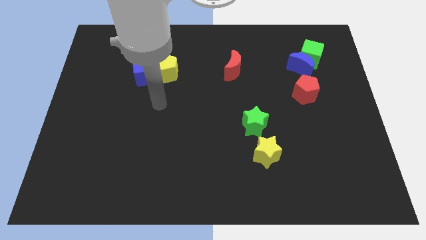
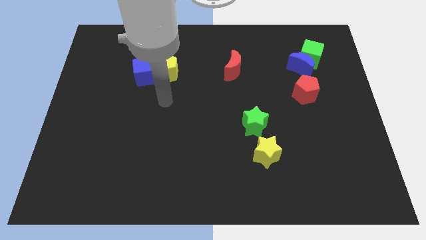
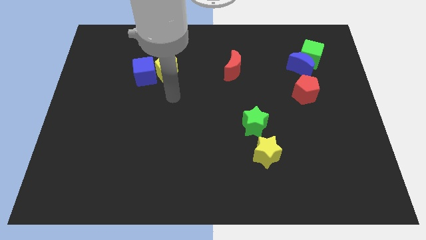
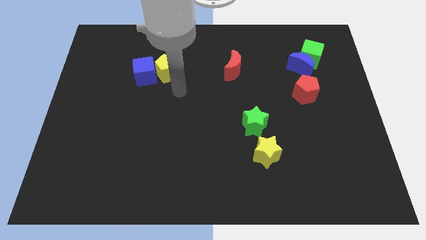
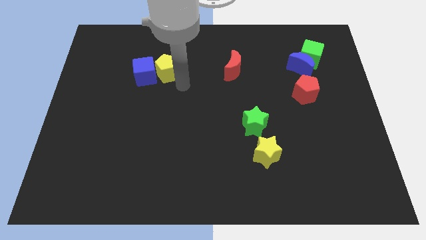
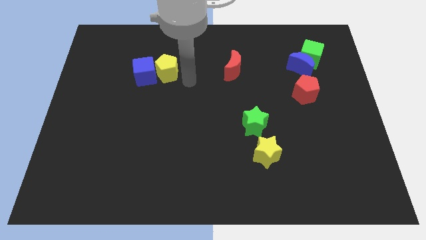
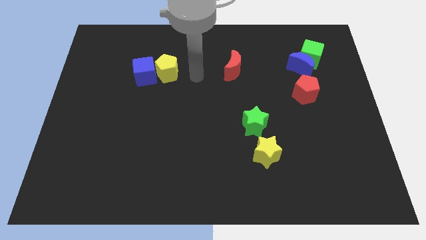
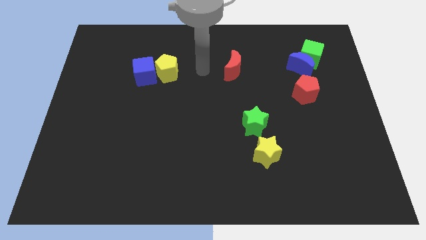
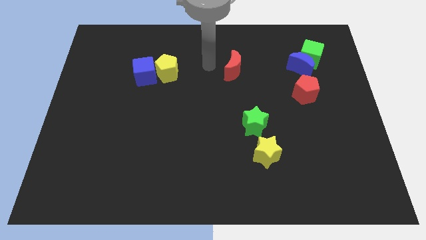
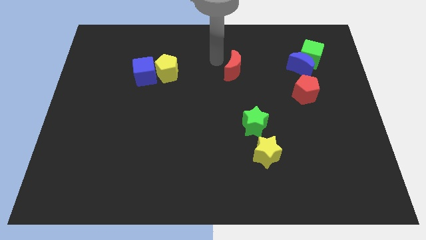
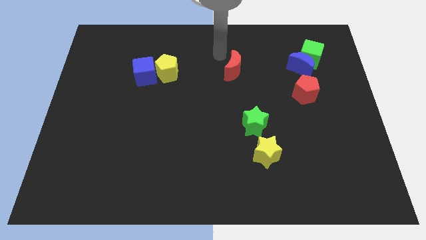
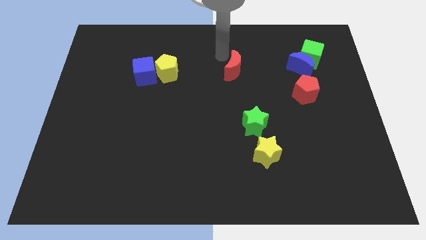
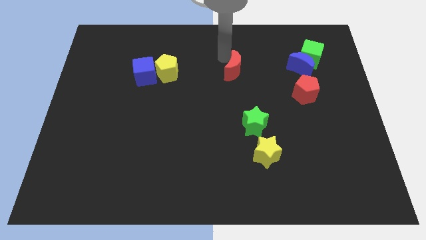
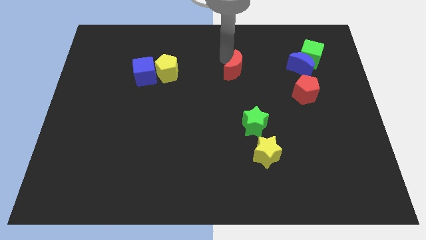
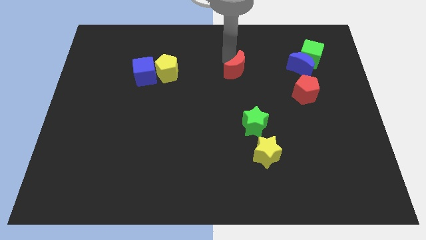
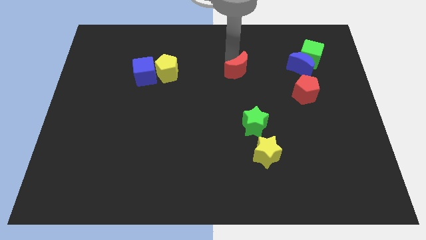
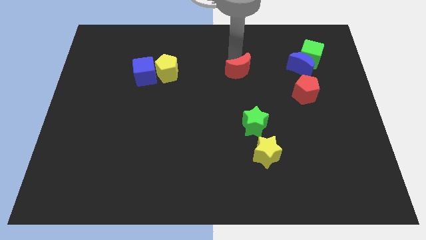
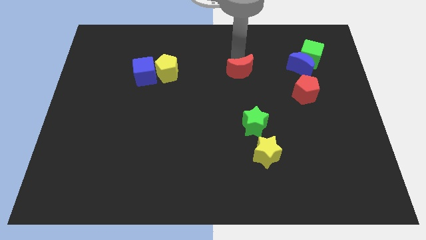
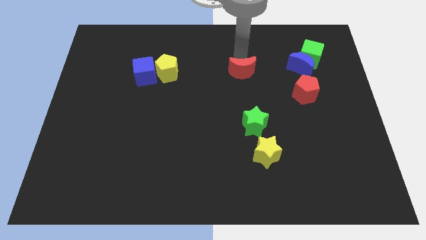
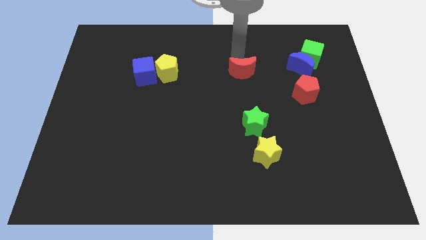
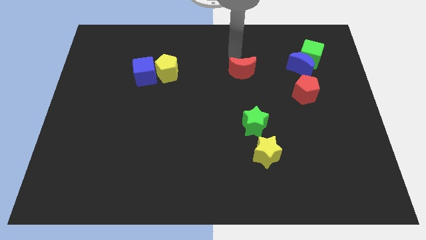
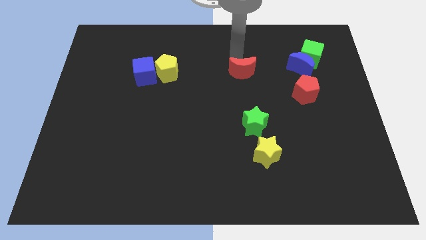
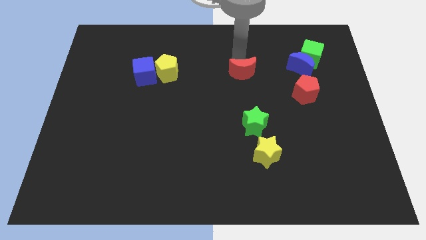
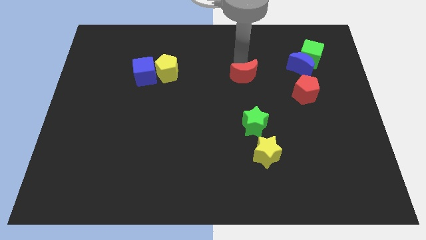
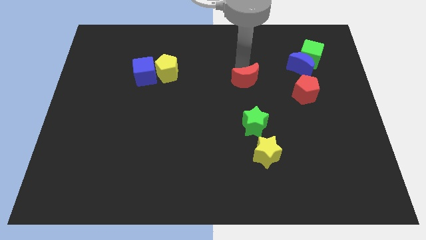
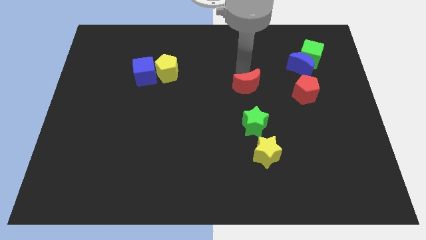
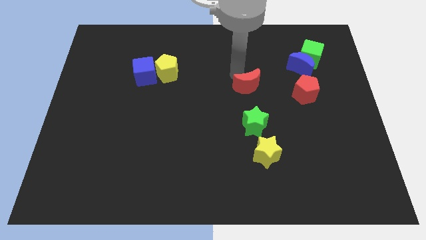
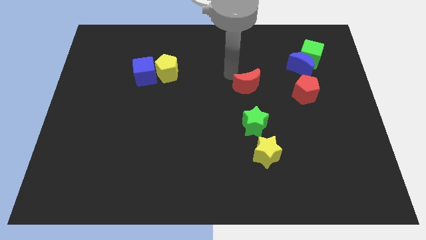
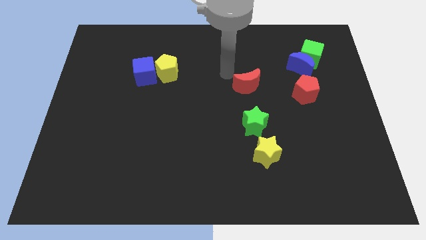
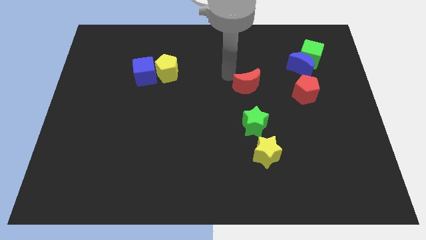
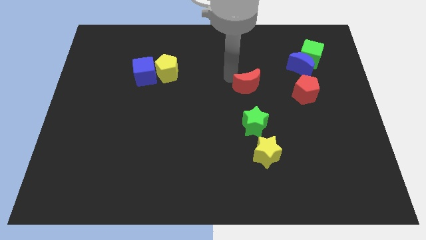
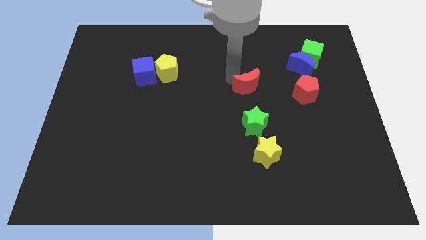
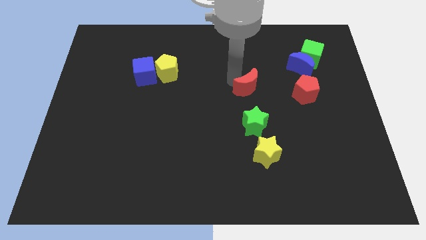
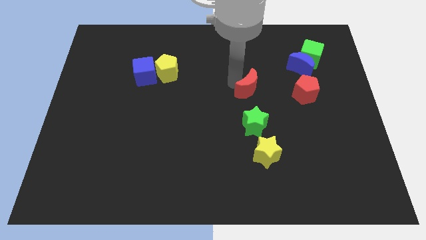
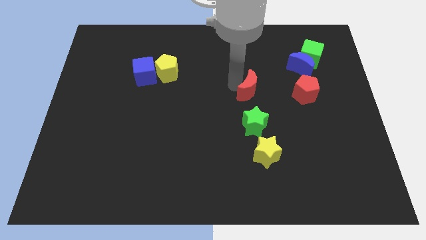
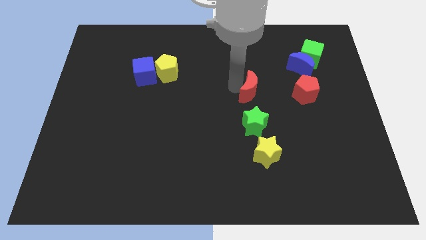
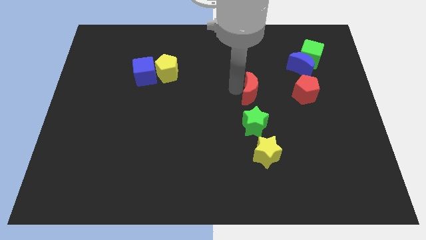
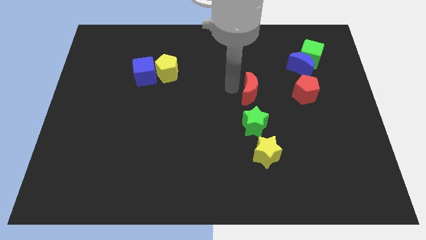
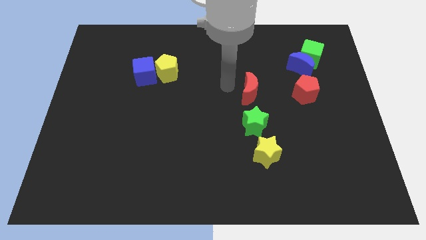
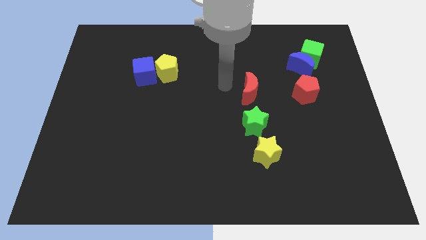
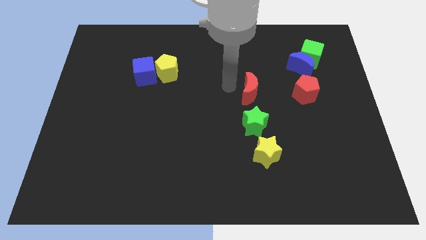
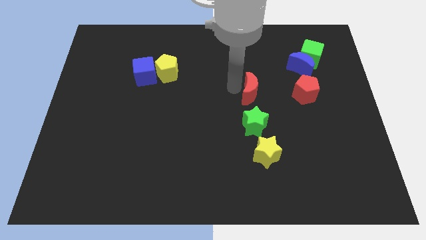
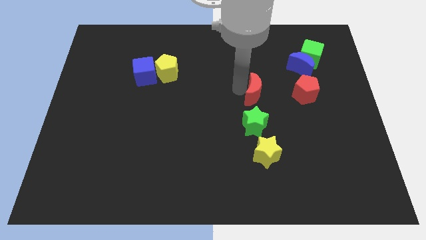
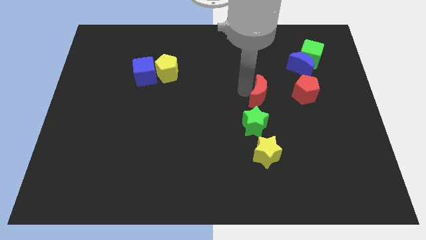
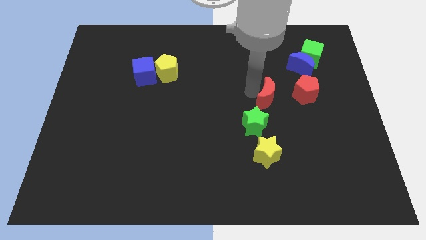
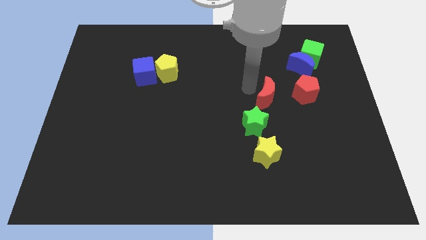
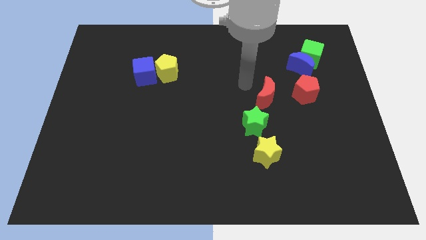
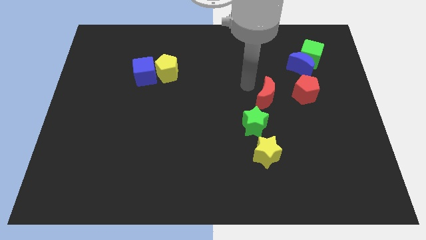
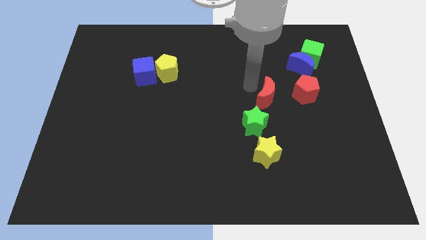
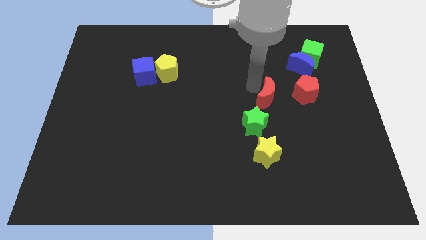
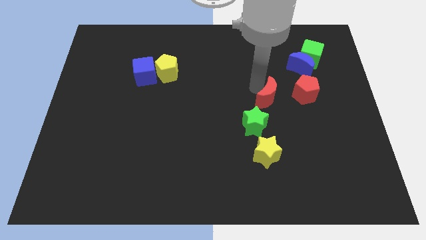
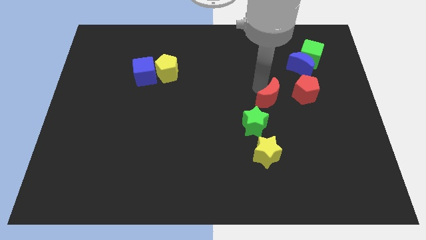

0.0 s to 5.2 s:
push the red moon diagonally down and to the left of the red pentagon

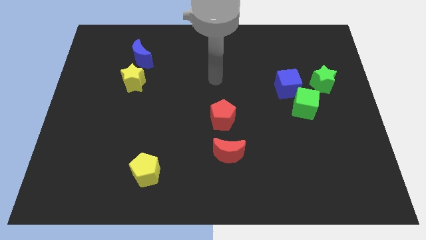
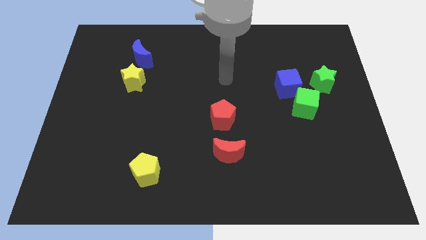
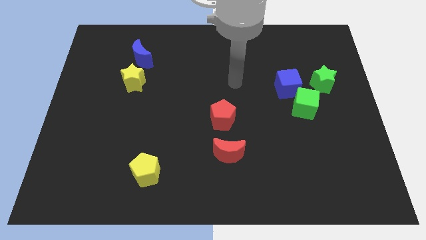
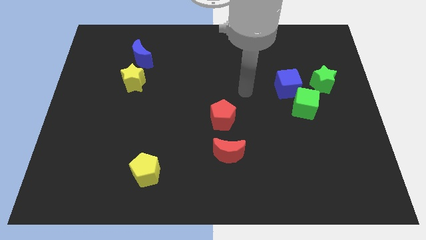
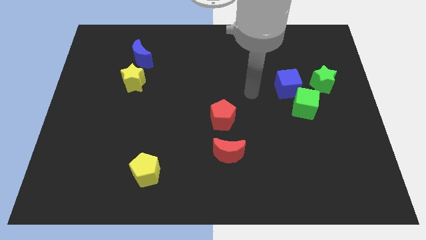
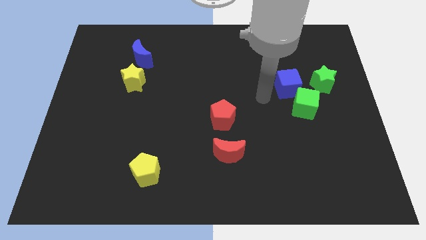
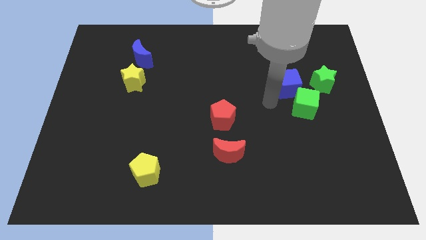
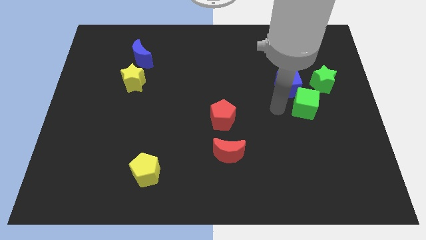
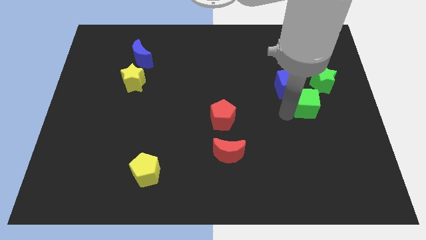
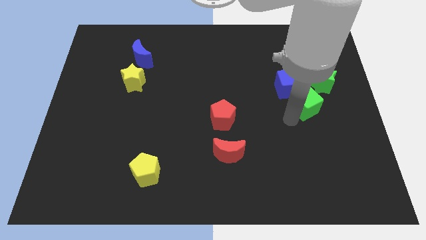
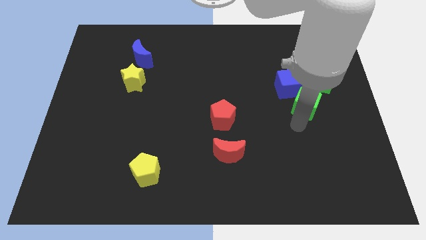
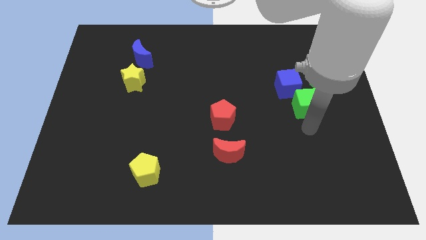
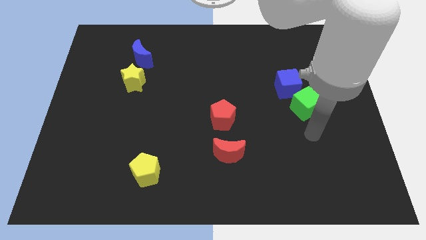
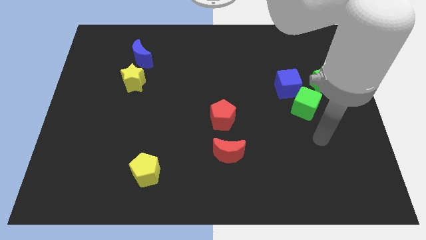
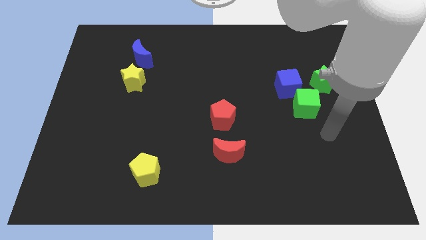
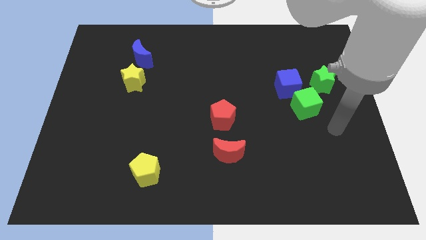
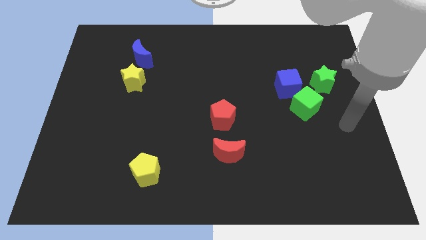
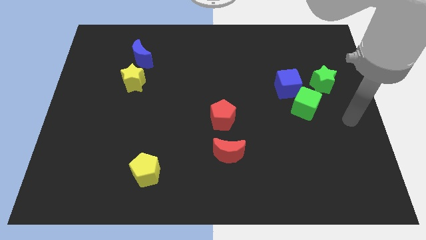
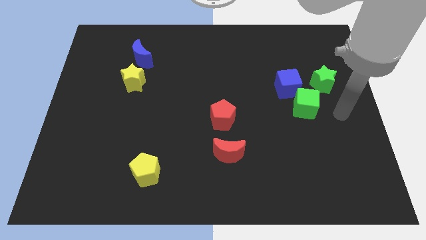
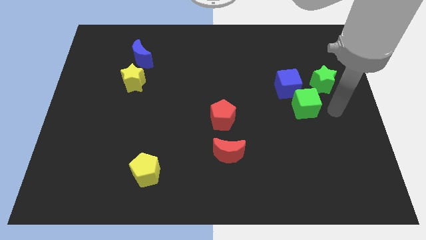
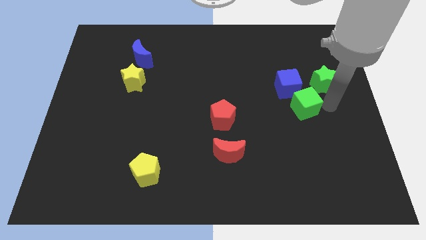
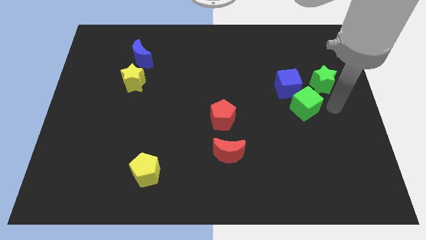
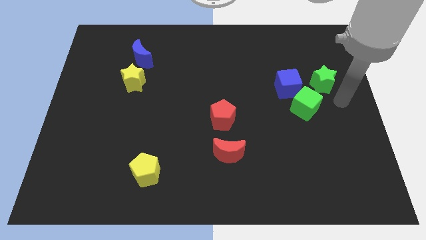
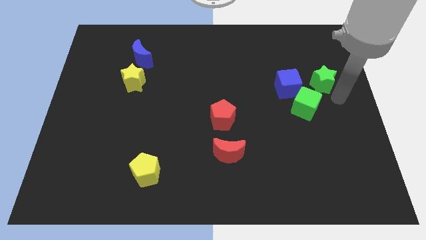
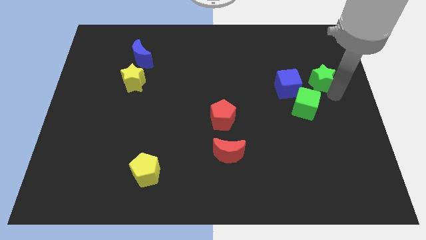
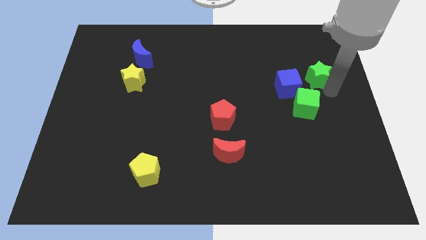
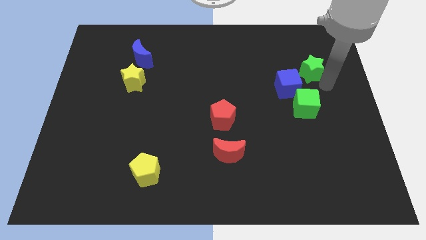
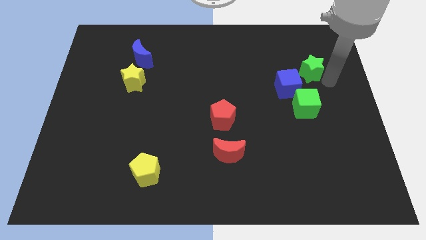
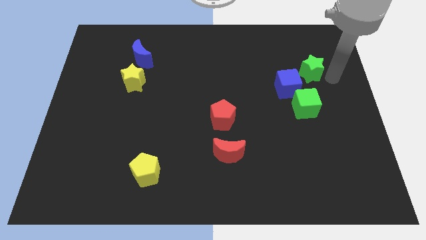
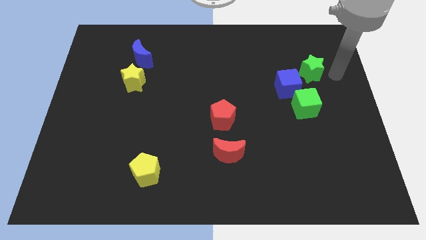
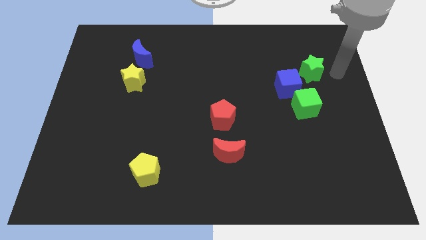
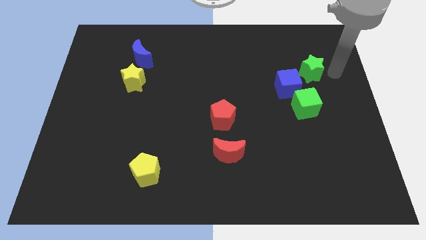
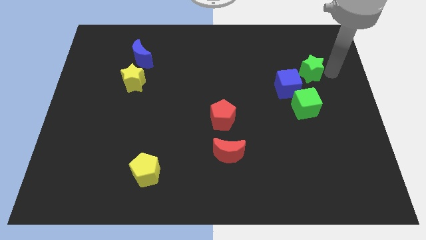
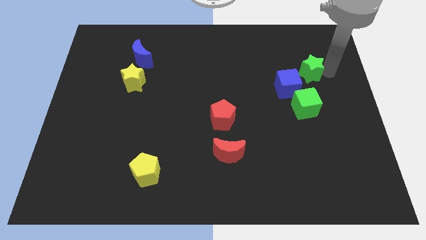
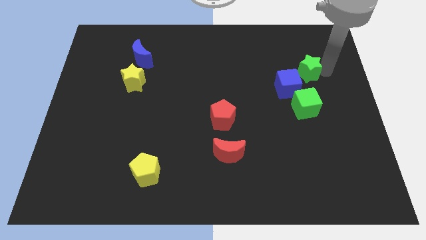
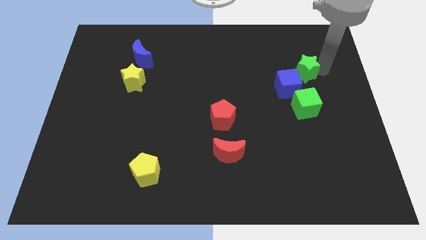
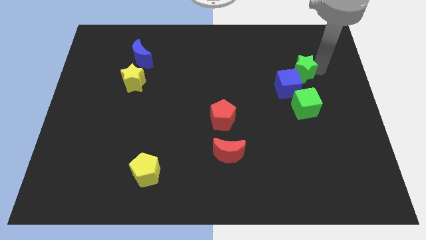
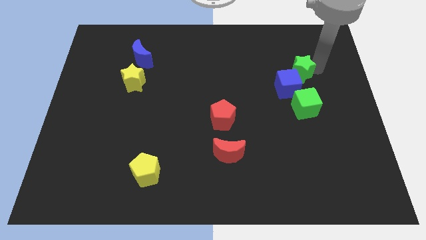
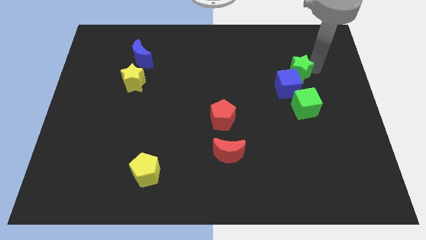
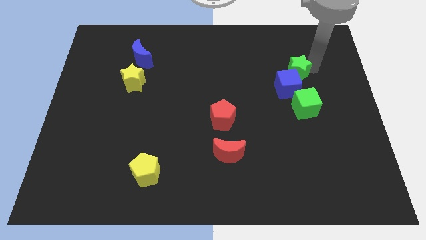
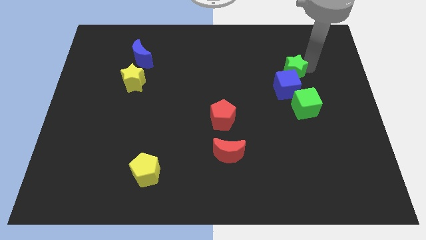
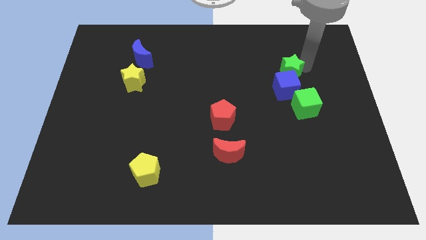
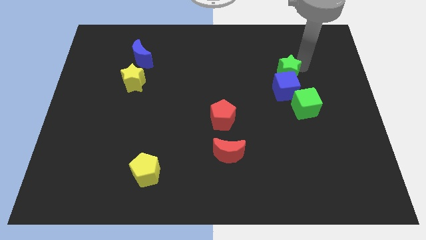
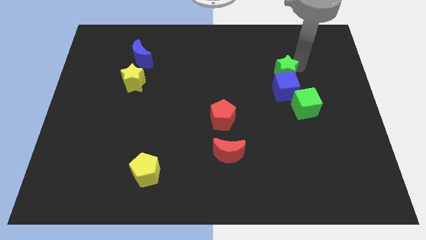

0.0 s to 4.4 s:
put the green star diagonally up and to the left of the blue cube
